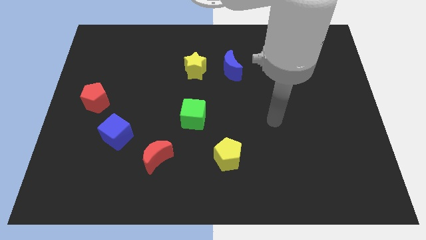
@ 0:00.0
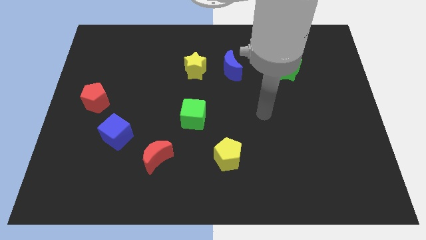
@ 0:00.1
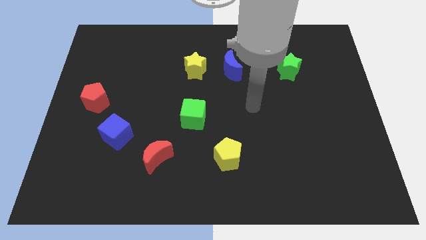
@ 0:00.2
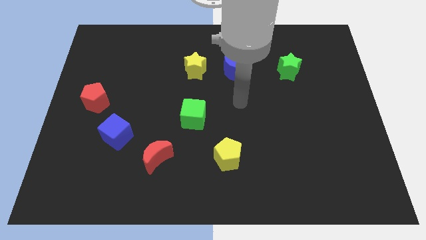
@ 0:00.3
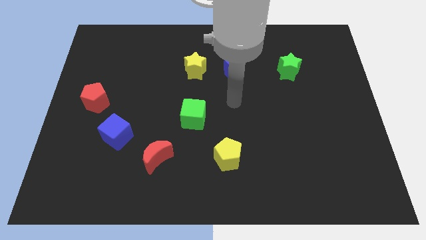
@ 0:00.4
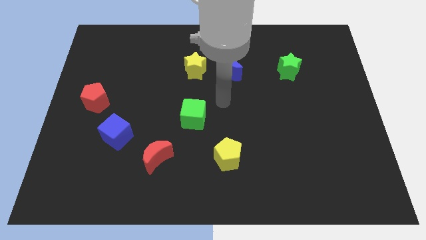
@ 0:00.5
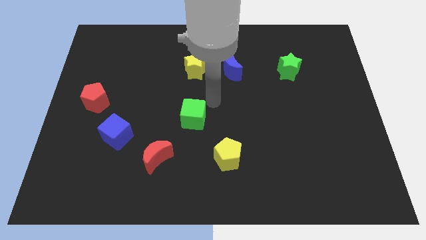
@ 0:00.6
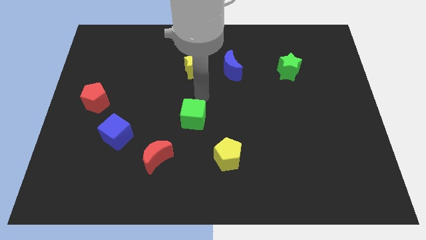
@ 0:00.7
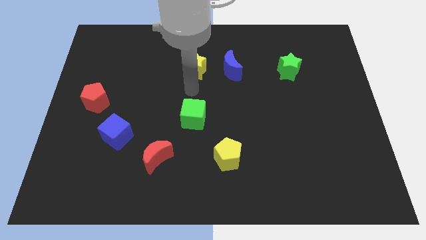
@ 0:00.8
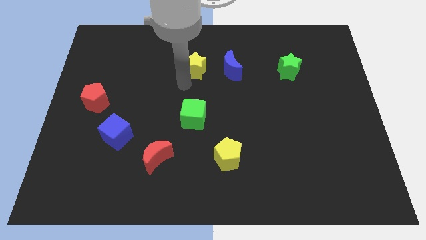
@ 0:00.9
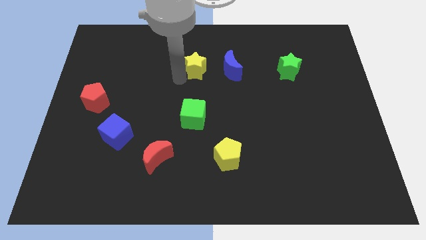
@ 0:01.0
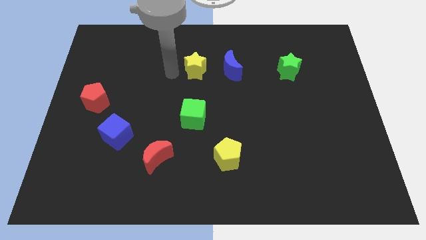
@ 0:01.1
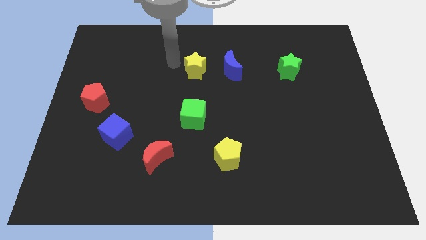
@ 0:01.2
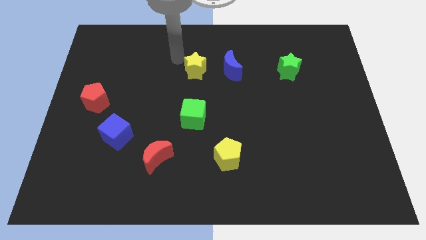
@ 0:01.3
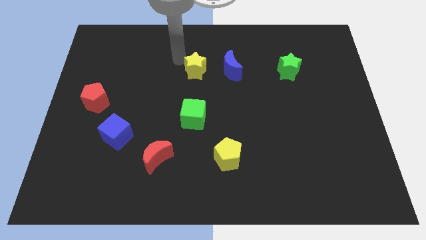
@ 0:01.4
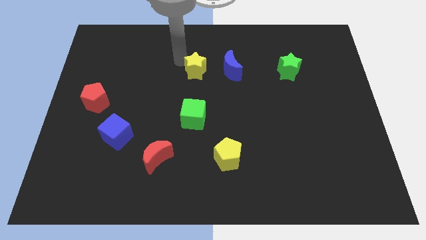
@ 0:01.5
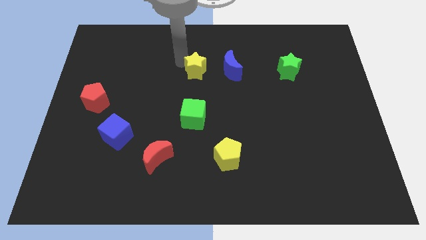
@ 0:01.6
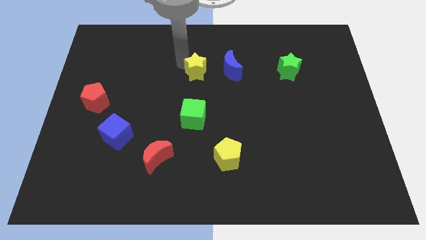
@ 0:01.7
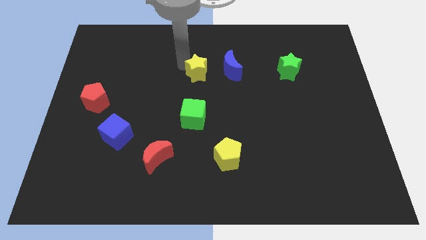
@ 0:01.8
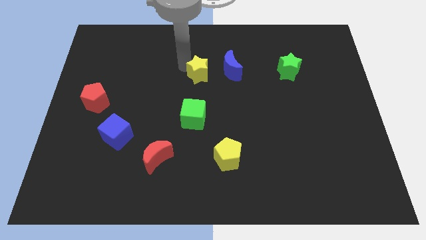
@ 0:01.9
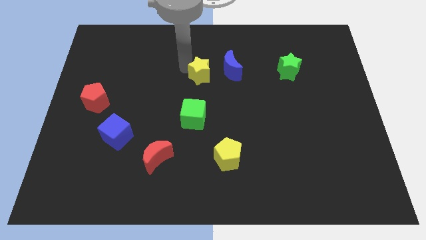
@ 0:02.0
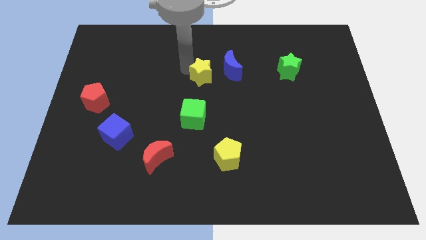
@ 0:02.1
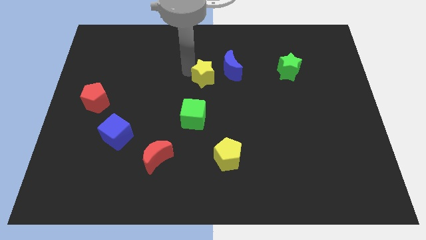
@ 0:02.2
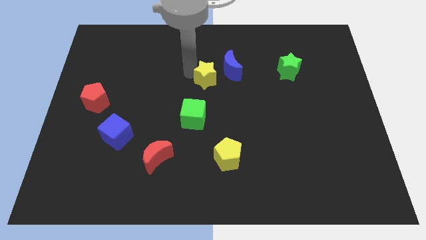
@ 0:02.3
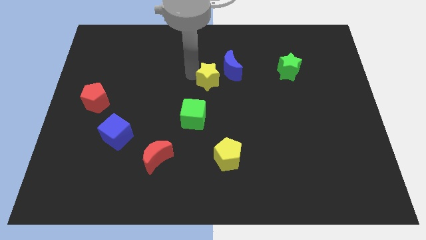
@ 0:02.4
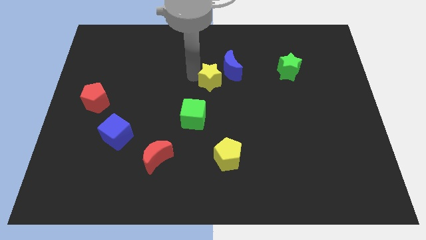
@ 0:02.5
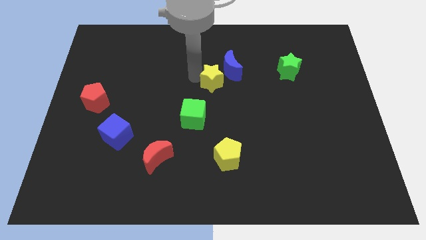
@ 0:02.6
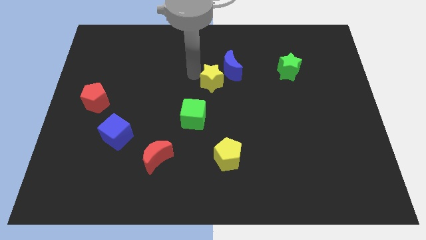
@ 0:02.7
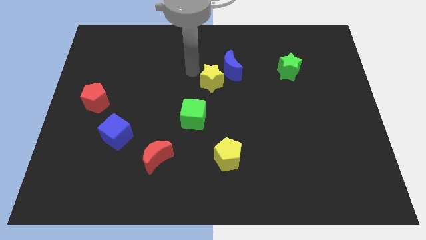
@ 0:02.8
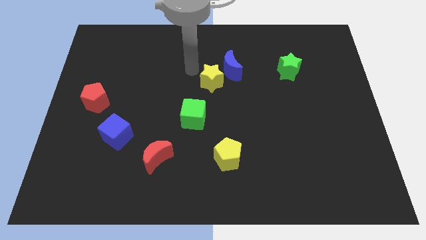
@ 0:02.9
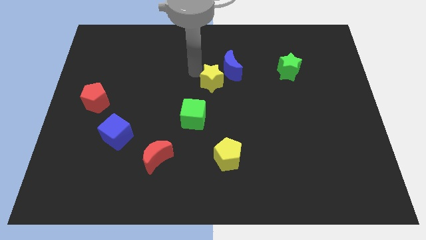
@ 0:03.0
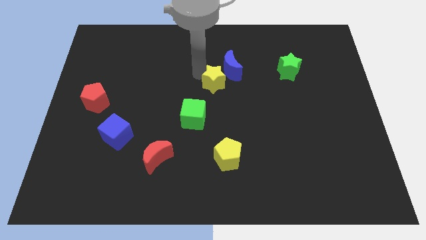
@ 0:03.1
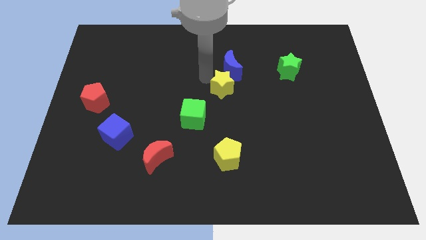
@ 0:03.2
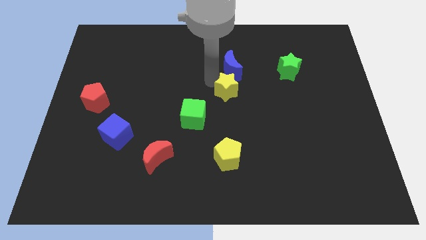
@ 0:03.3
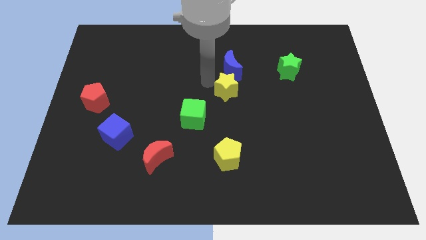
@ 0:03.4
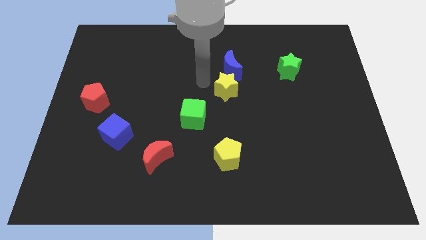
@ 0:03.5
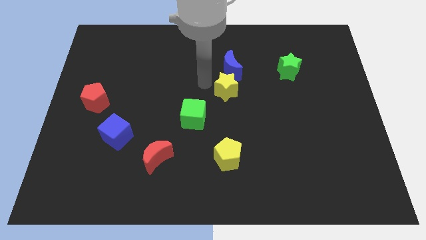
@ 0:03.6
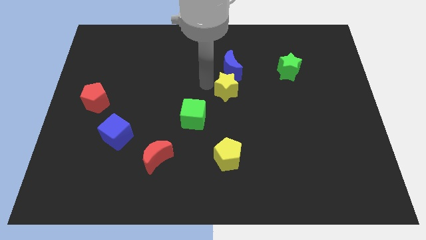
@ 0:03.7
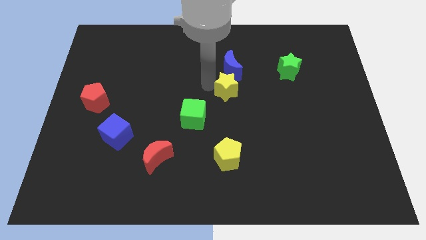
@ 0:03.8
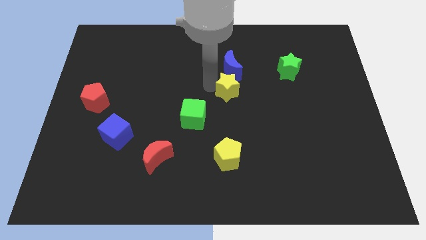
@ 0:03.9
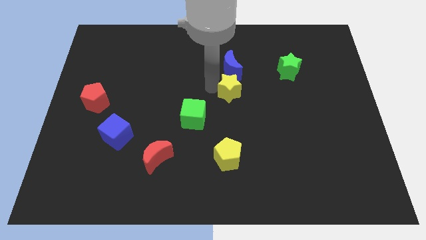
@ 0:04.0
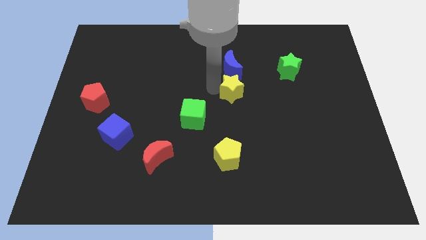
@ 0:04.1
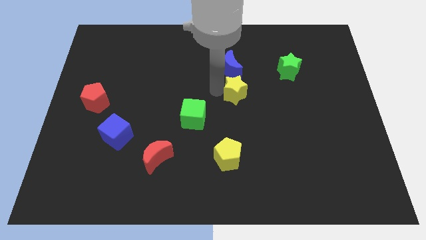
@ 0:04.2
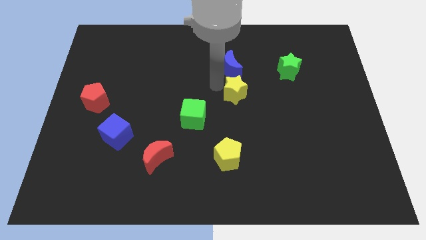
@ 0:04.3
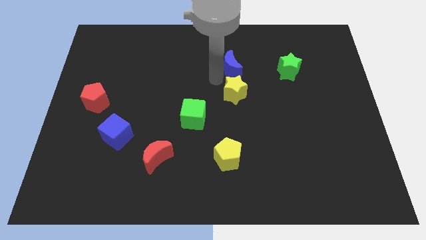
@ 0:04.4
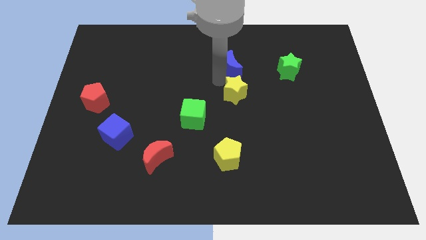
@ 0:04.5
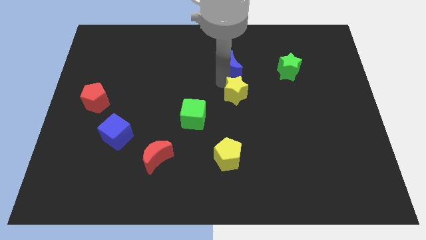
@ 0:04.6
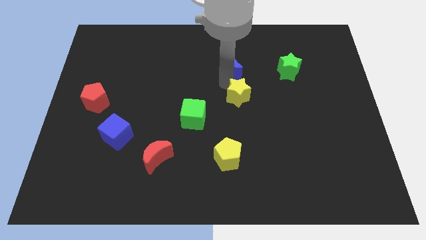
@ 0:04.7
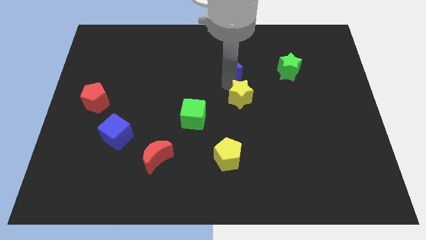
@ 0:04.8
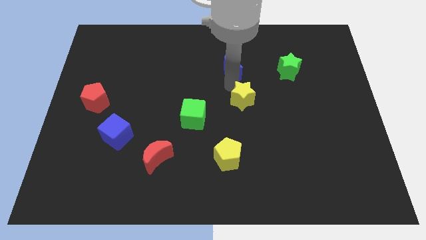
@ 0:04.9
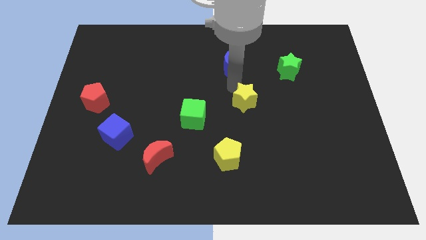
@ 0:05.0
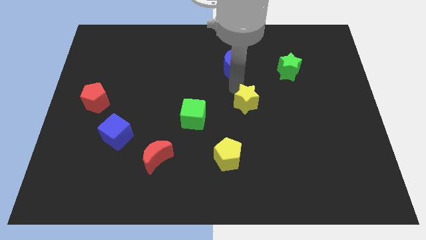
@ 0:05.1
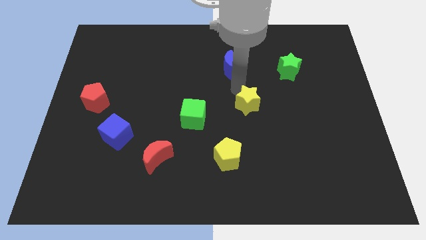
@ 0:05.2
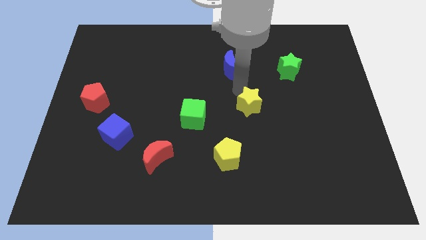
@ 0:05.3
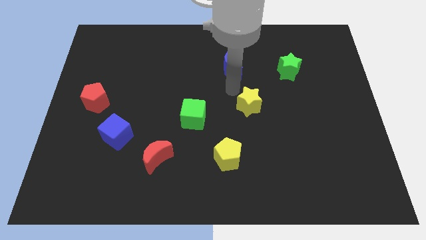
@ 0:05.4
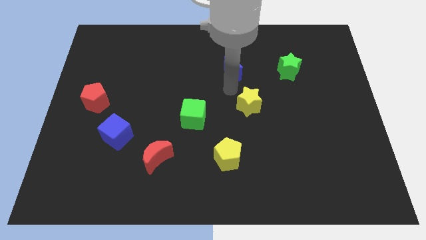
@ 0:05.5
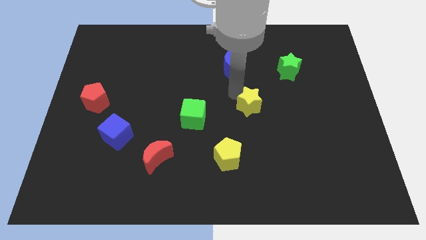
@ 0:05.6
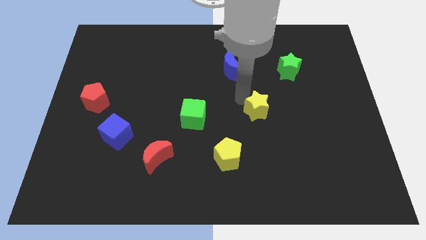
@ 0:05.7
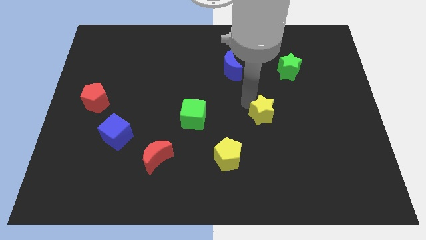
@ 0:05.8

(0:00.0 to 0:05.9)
move the yellow star diagonally downwards and right

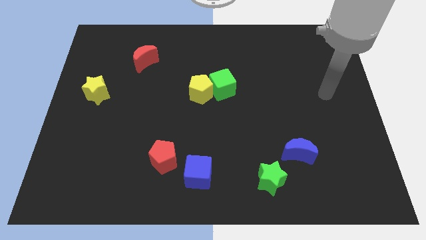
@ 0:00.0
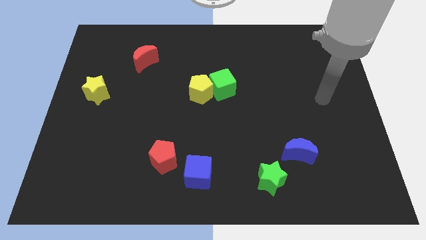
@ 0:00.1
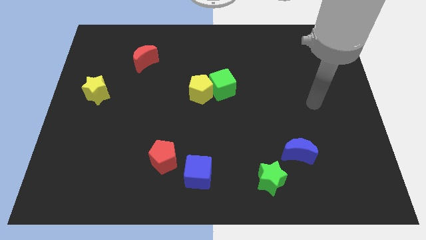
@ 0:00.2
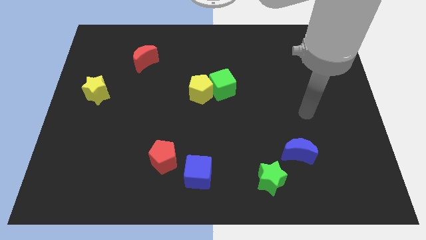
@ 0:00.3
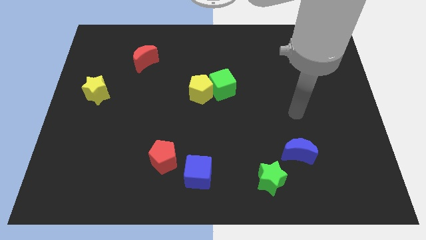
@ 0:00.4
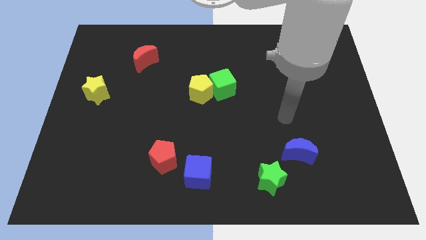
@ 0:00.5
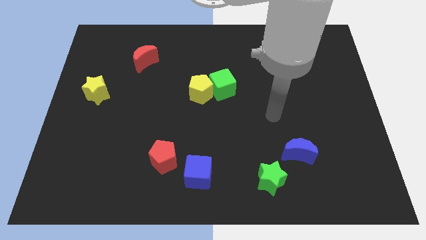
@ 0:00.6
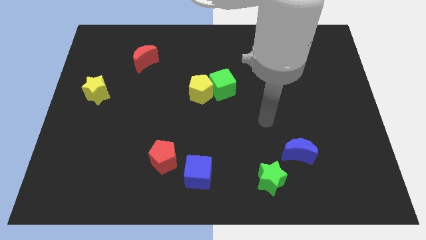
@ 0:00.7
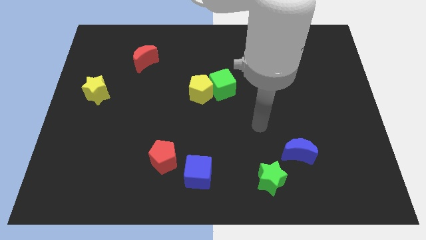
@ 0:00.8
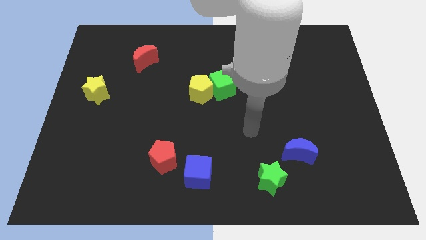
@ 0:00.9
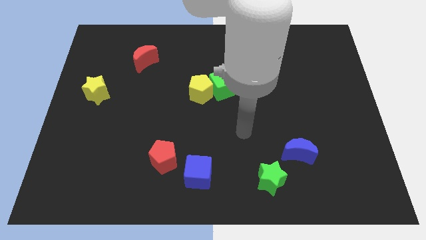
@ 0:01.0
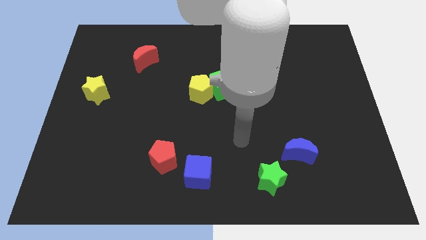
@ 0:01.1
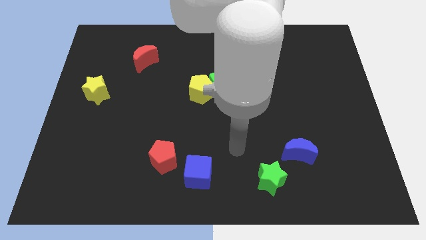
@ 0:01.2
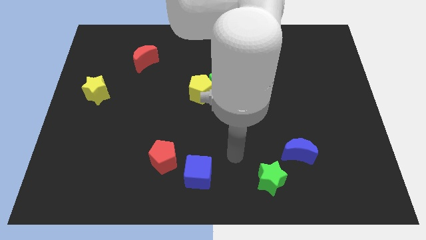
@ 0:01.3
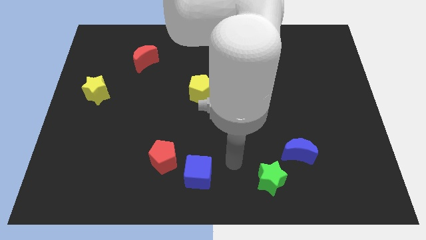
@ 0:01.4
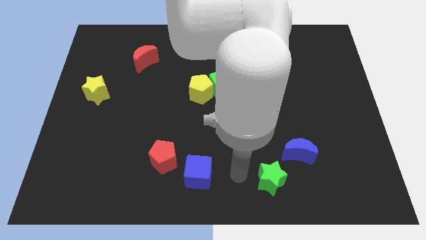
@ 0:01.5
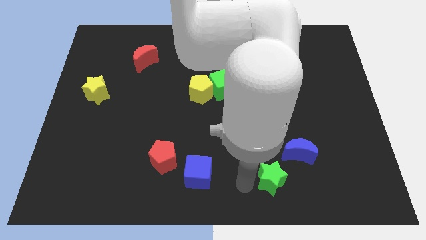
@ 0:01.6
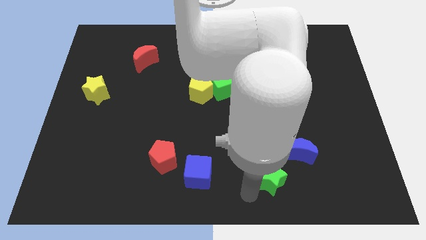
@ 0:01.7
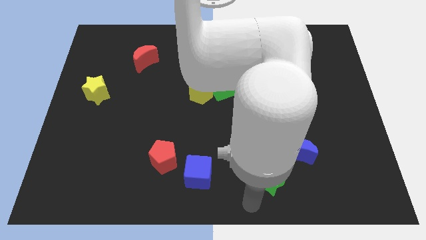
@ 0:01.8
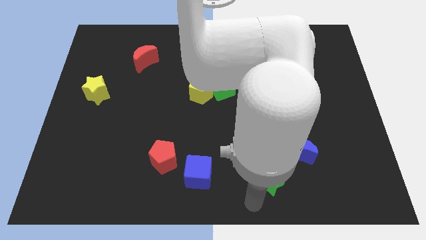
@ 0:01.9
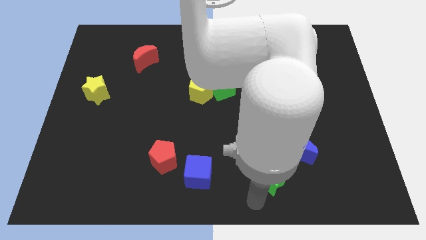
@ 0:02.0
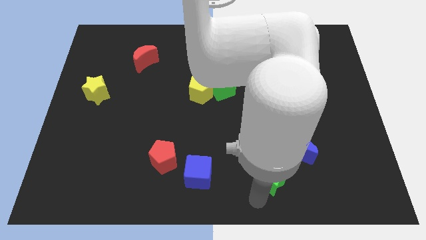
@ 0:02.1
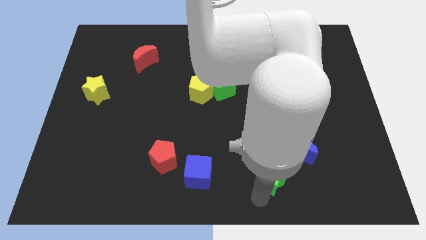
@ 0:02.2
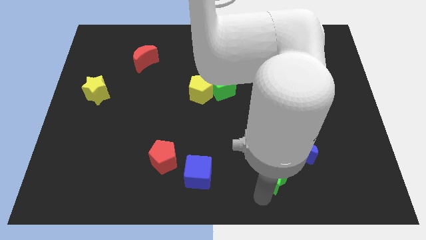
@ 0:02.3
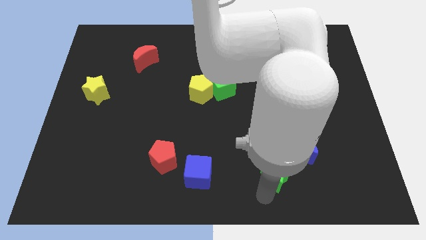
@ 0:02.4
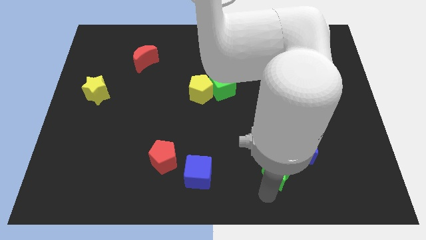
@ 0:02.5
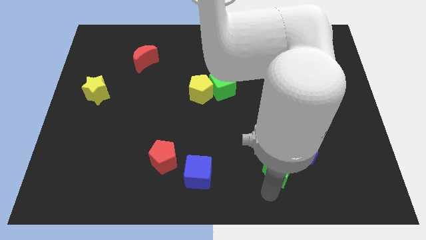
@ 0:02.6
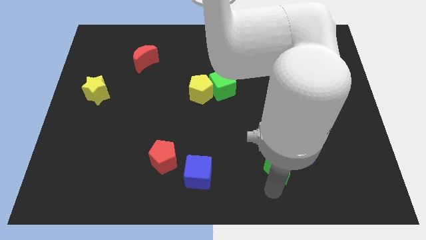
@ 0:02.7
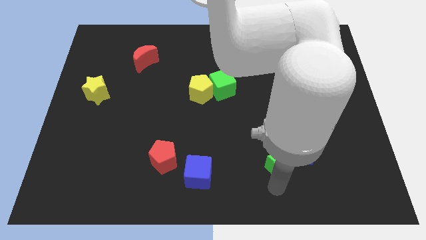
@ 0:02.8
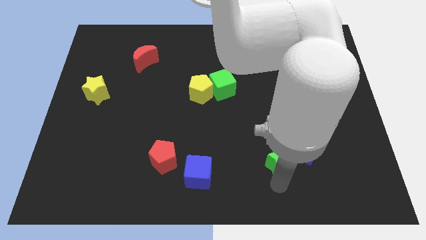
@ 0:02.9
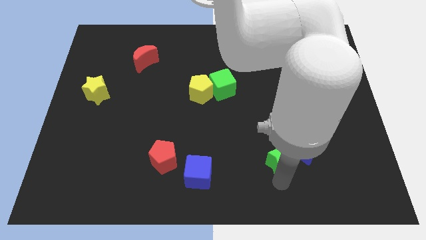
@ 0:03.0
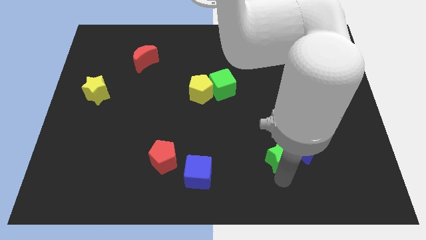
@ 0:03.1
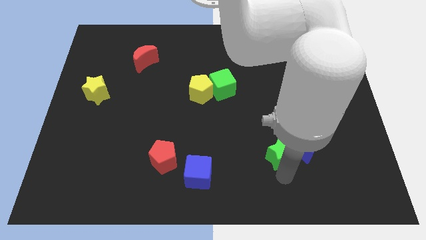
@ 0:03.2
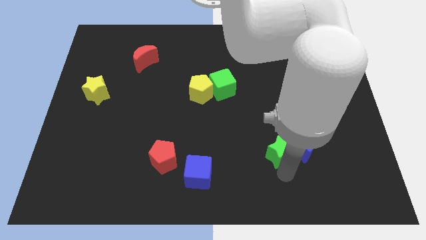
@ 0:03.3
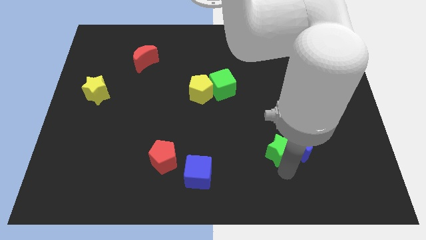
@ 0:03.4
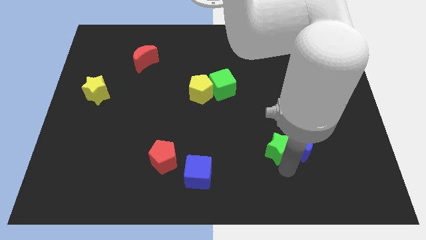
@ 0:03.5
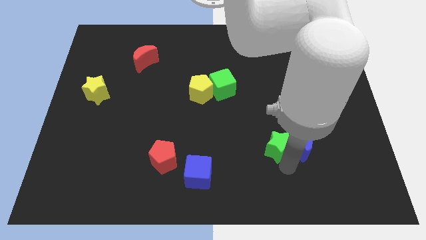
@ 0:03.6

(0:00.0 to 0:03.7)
move the green star slightly upwards and right diagonally
